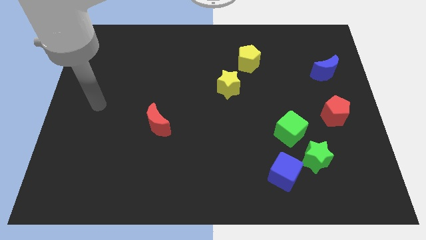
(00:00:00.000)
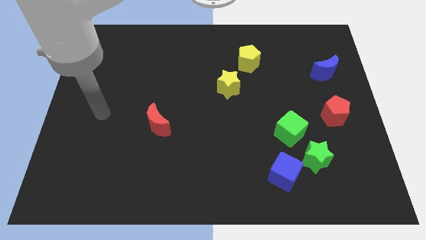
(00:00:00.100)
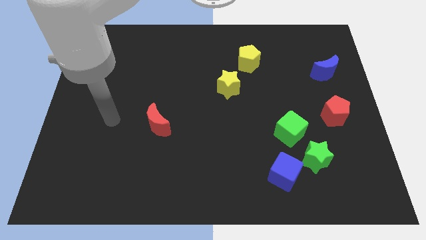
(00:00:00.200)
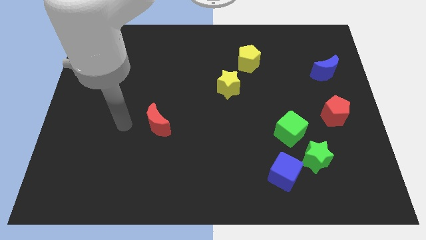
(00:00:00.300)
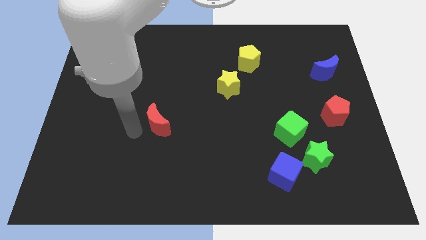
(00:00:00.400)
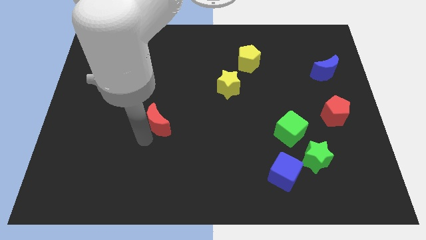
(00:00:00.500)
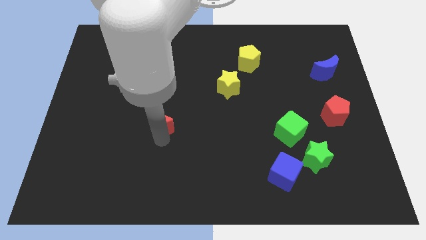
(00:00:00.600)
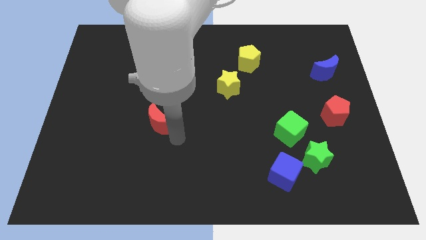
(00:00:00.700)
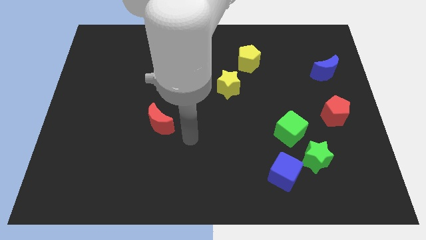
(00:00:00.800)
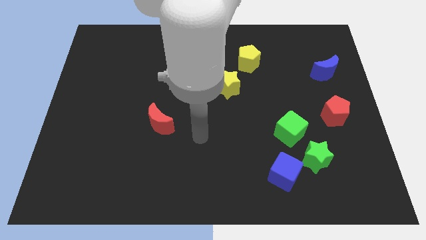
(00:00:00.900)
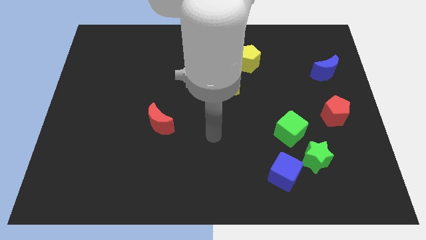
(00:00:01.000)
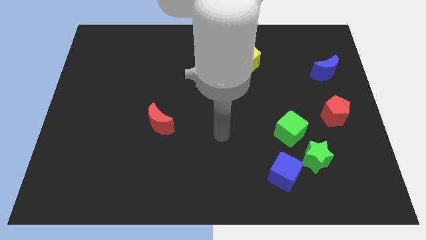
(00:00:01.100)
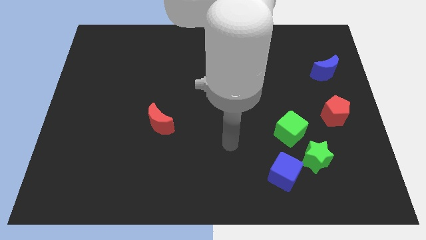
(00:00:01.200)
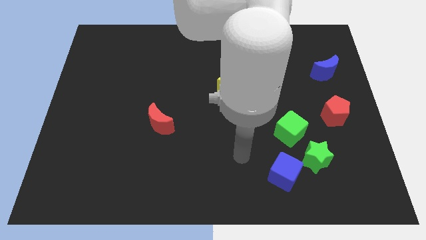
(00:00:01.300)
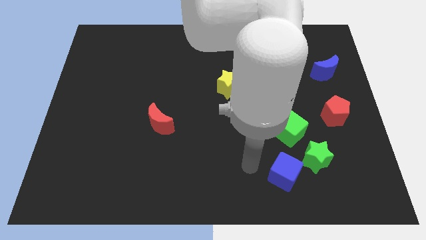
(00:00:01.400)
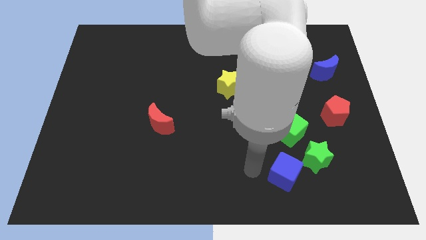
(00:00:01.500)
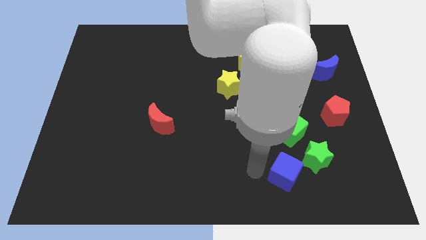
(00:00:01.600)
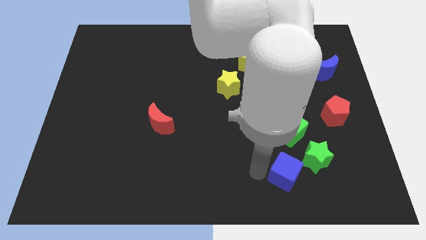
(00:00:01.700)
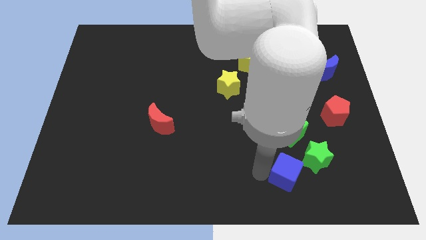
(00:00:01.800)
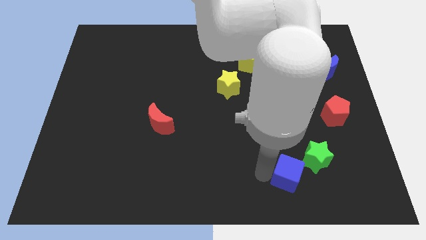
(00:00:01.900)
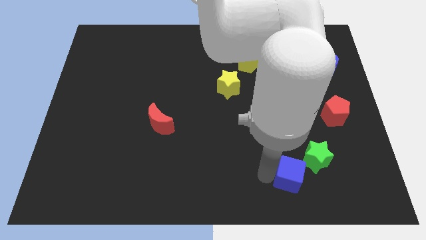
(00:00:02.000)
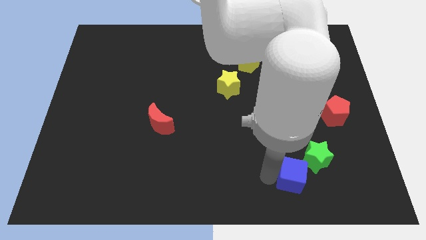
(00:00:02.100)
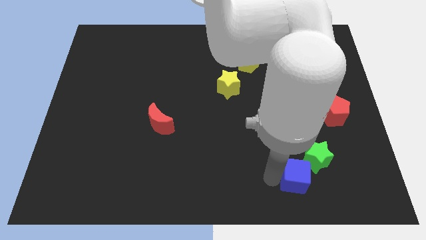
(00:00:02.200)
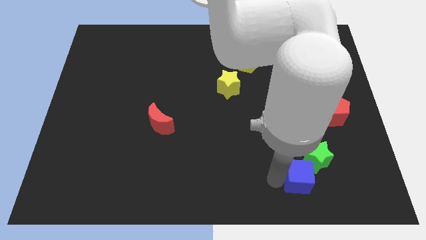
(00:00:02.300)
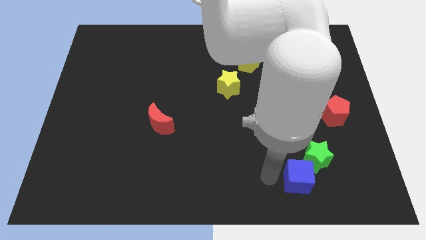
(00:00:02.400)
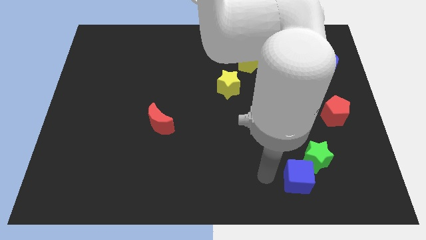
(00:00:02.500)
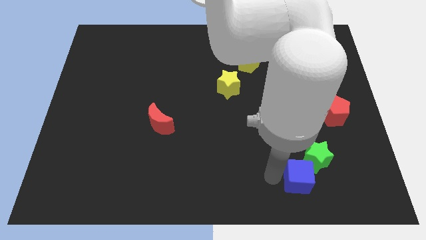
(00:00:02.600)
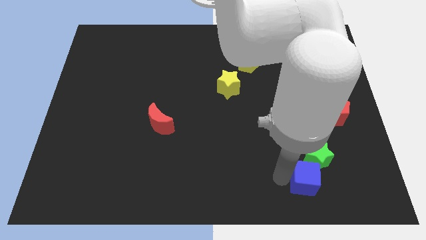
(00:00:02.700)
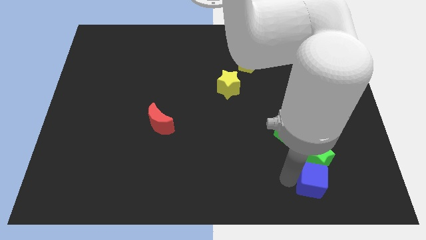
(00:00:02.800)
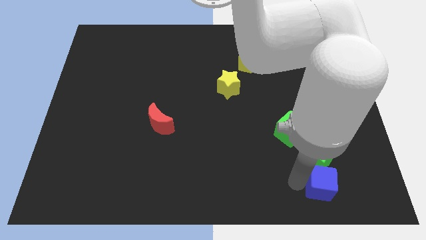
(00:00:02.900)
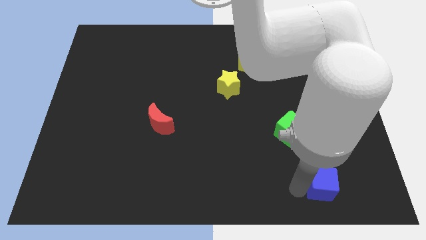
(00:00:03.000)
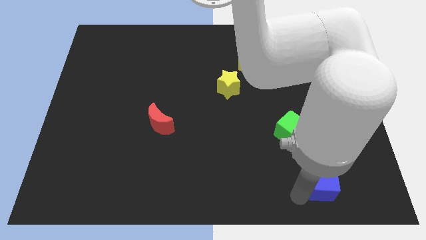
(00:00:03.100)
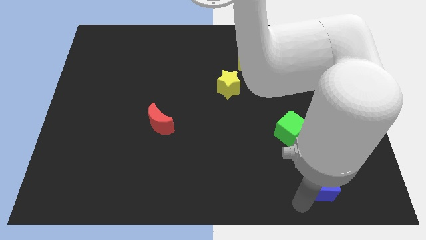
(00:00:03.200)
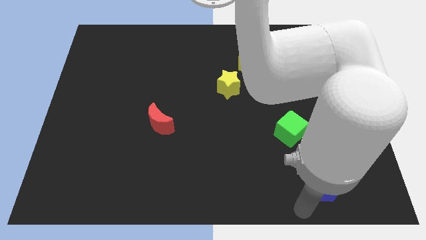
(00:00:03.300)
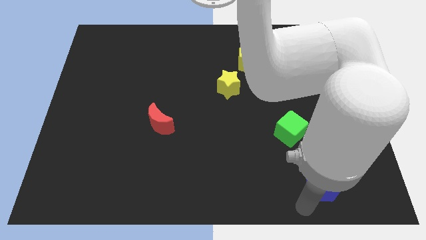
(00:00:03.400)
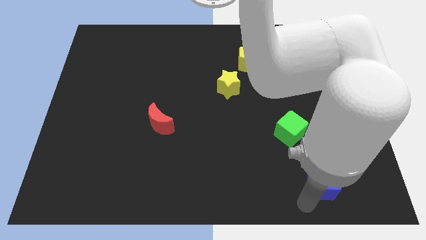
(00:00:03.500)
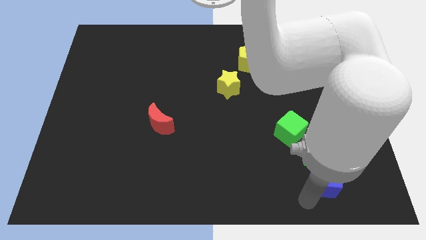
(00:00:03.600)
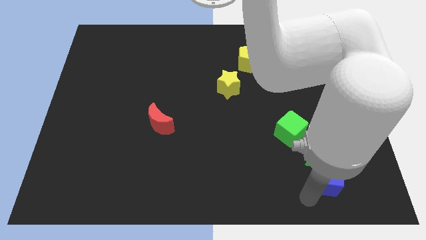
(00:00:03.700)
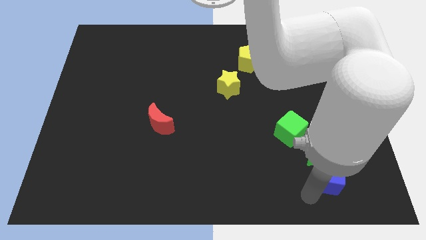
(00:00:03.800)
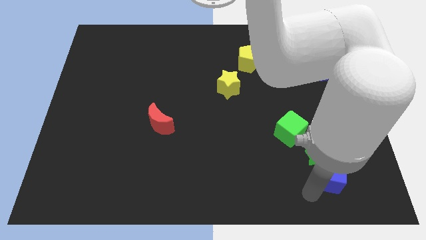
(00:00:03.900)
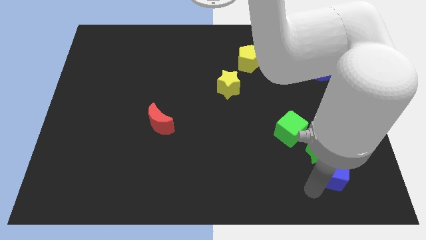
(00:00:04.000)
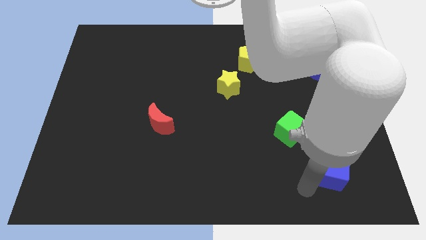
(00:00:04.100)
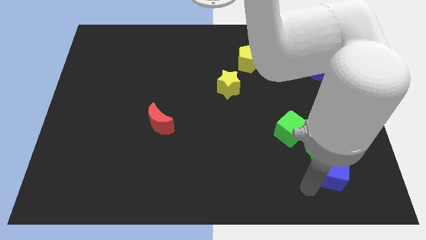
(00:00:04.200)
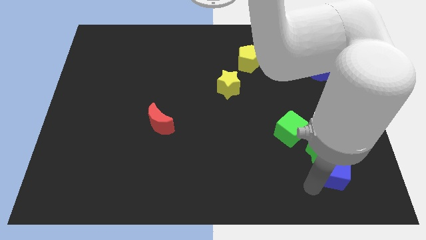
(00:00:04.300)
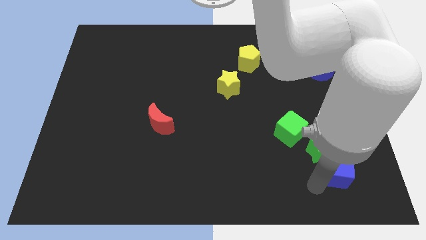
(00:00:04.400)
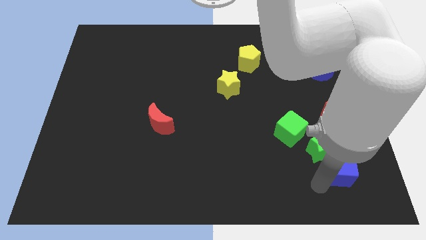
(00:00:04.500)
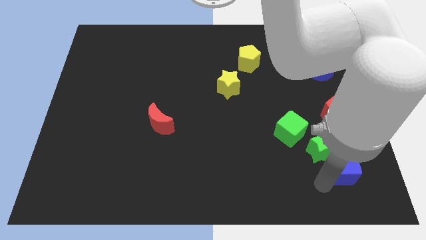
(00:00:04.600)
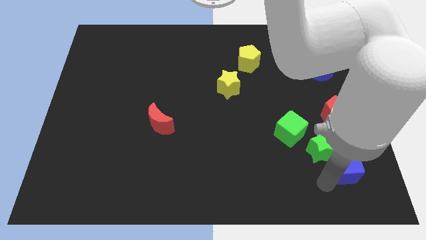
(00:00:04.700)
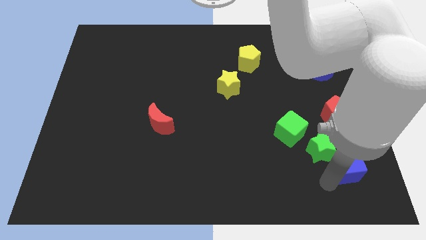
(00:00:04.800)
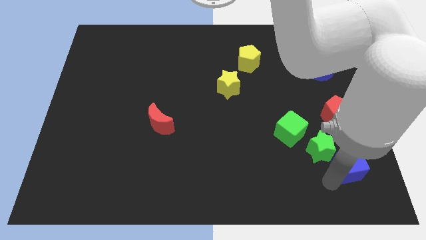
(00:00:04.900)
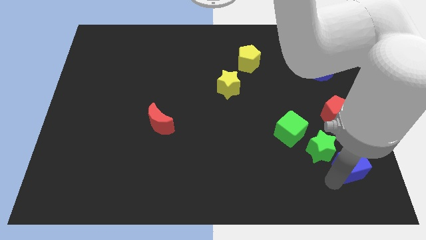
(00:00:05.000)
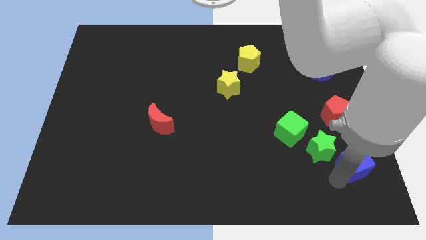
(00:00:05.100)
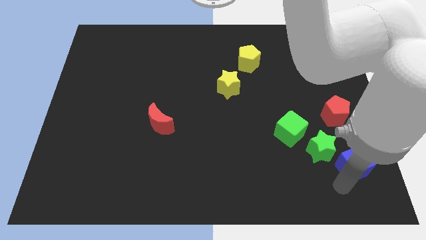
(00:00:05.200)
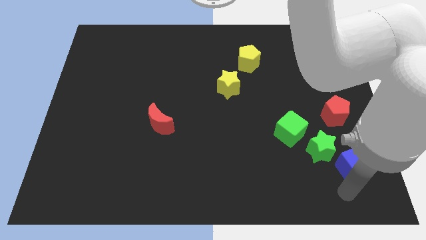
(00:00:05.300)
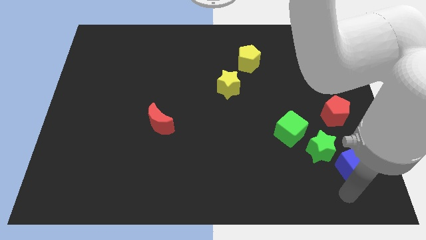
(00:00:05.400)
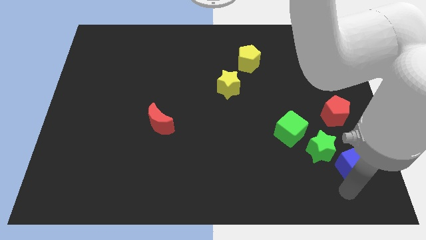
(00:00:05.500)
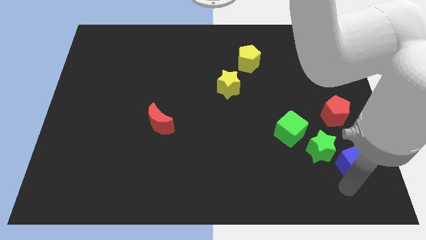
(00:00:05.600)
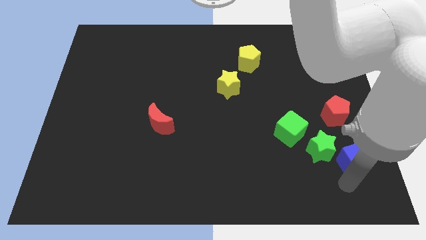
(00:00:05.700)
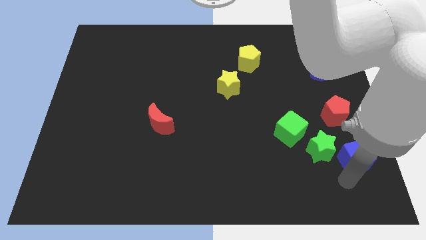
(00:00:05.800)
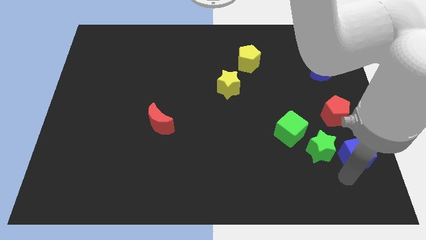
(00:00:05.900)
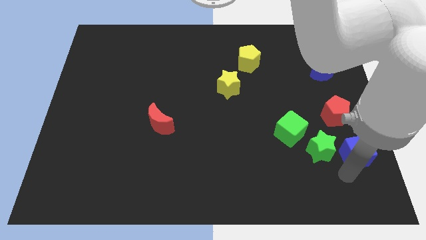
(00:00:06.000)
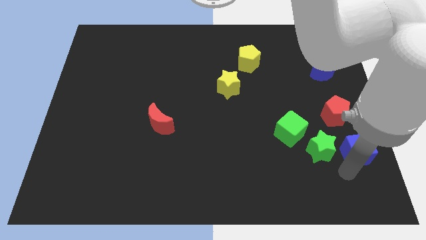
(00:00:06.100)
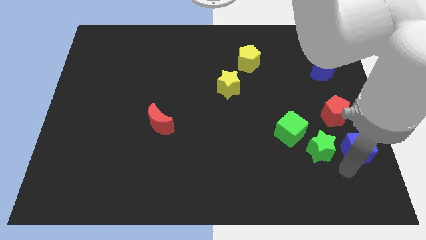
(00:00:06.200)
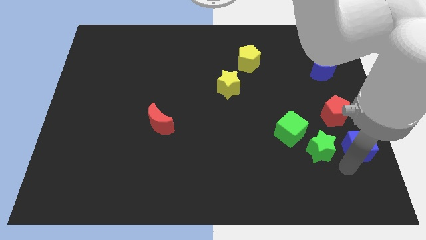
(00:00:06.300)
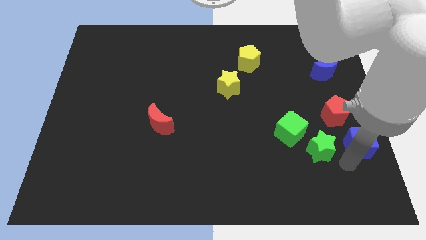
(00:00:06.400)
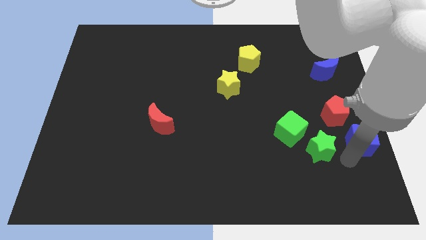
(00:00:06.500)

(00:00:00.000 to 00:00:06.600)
slide the blue cube to the right side of the board
